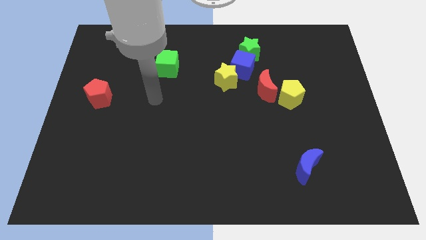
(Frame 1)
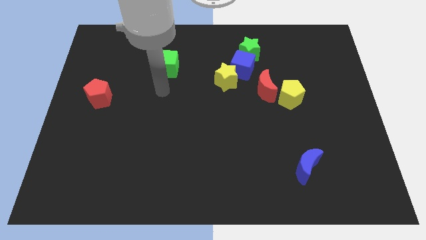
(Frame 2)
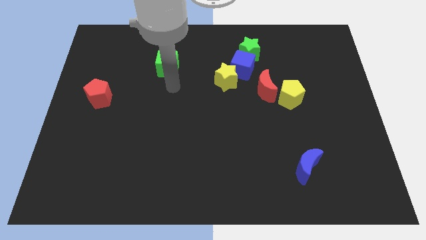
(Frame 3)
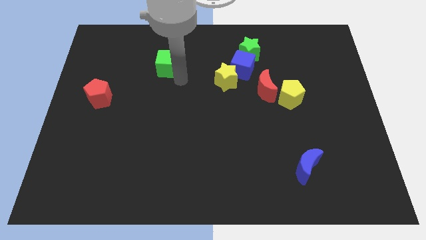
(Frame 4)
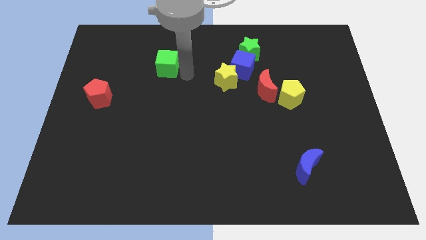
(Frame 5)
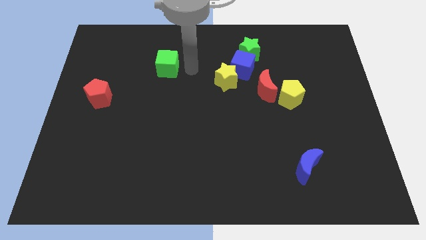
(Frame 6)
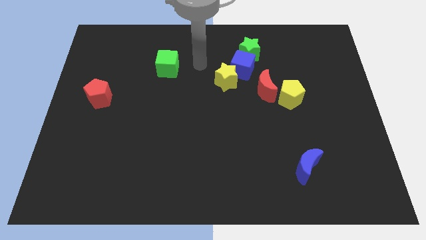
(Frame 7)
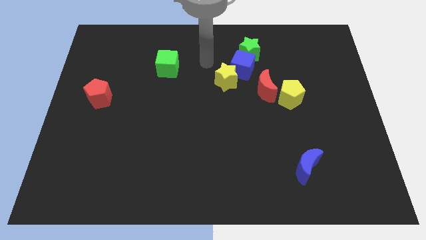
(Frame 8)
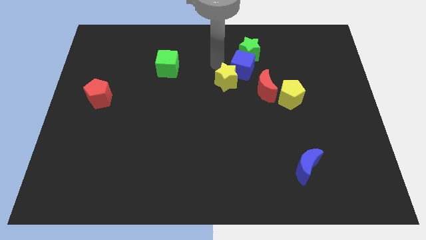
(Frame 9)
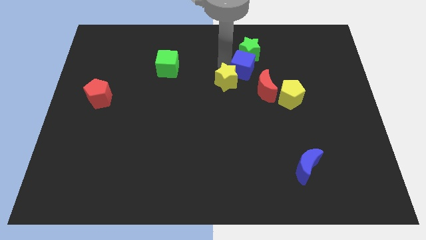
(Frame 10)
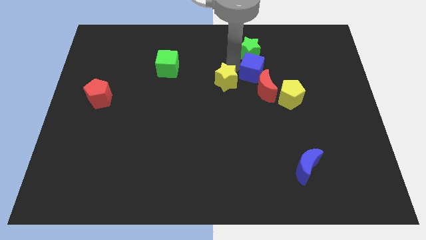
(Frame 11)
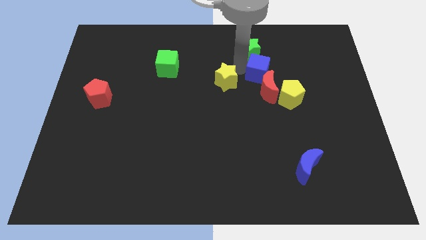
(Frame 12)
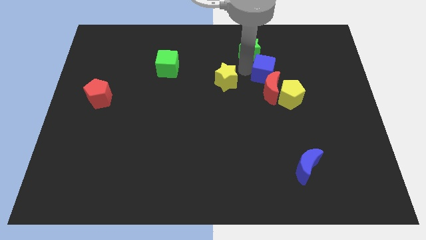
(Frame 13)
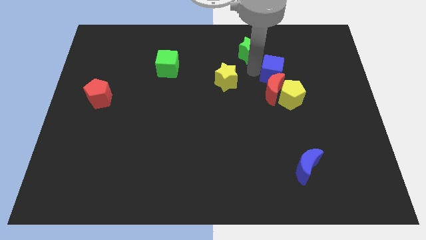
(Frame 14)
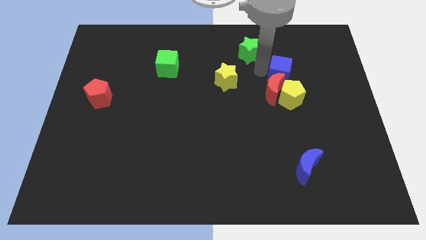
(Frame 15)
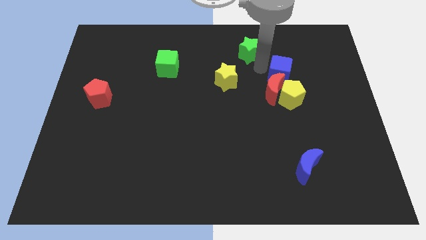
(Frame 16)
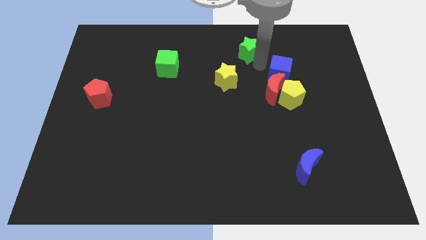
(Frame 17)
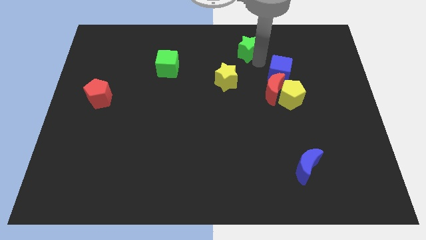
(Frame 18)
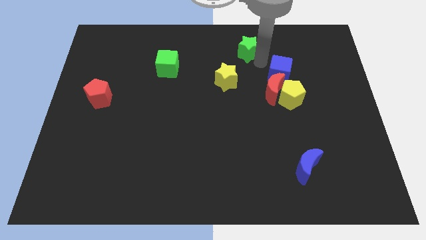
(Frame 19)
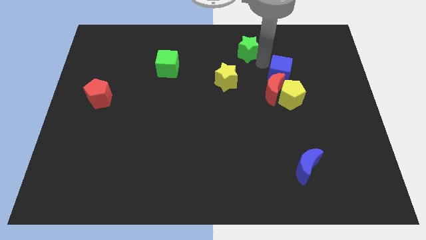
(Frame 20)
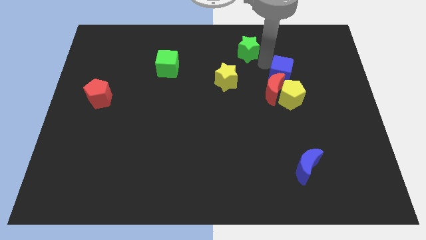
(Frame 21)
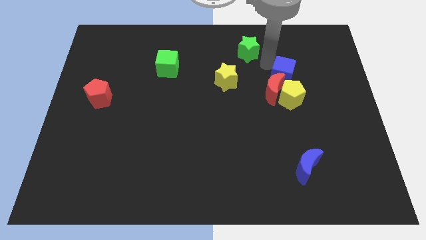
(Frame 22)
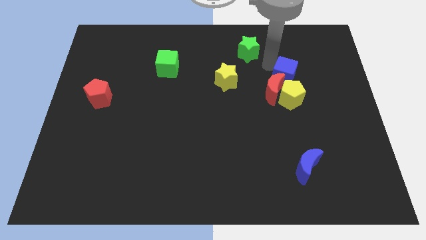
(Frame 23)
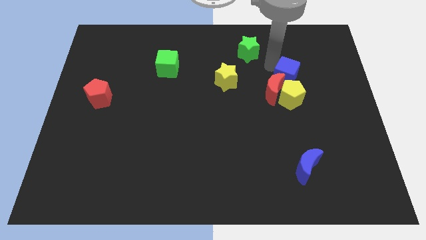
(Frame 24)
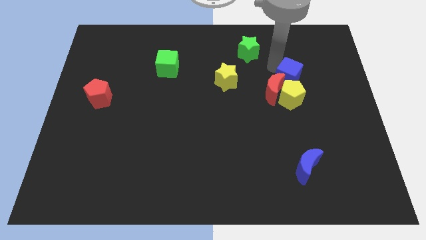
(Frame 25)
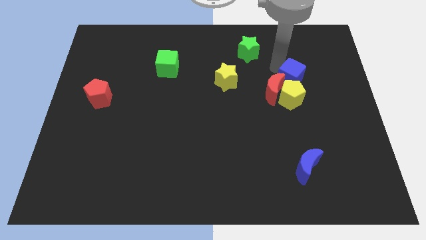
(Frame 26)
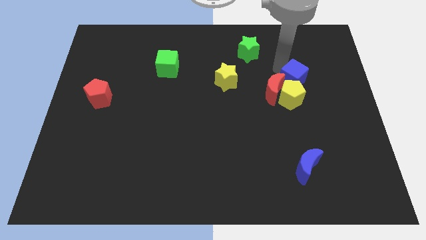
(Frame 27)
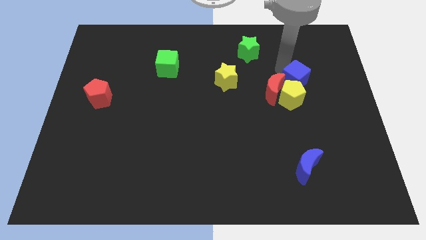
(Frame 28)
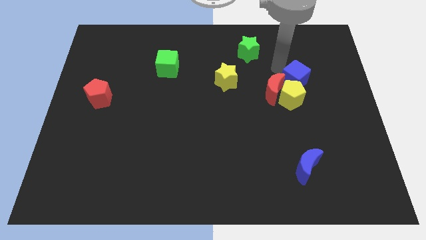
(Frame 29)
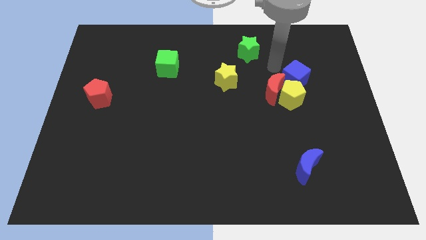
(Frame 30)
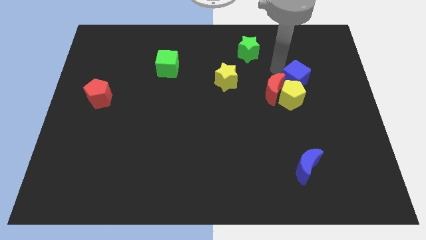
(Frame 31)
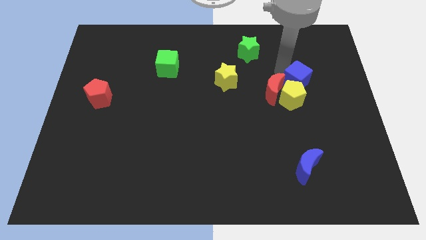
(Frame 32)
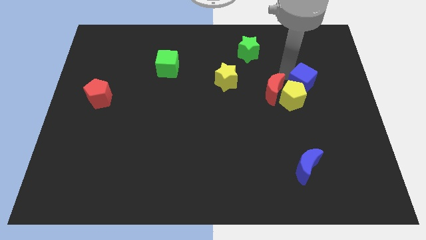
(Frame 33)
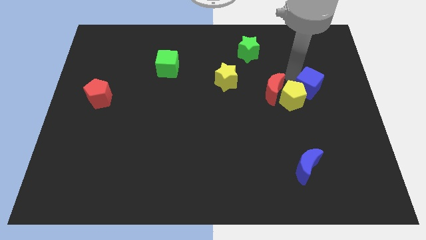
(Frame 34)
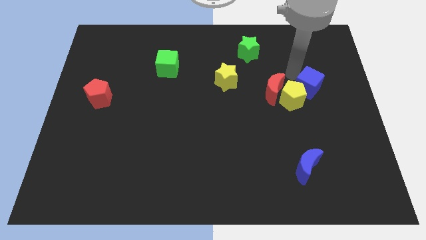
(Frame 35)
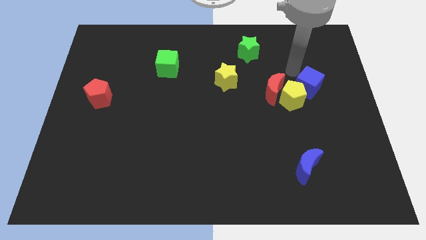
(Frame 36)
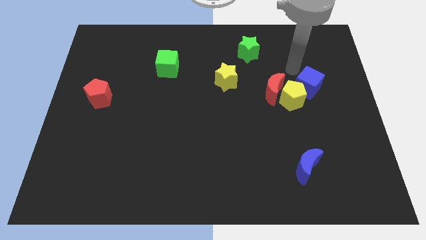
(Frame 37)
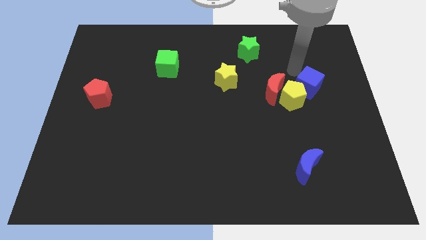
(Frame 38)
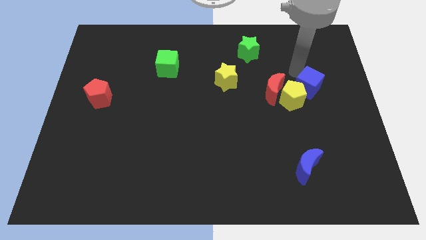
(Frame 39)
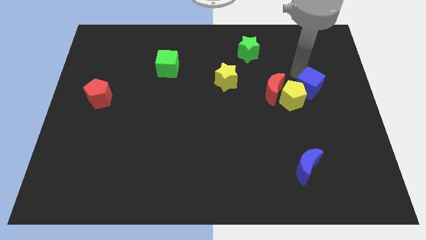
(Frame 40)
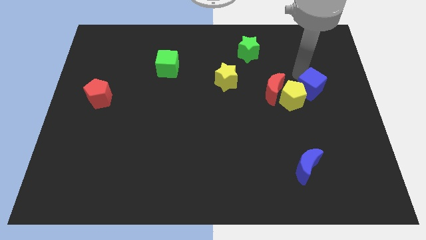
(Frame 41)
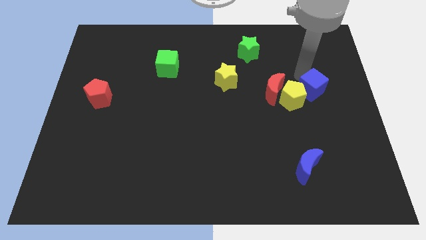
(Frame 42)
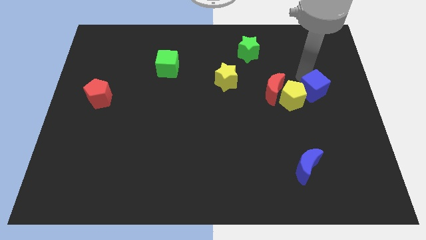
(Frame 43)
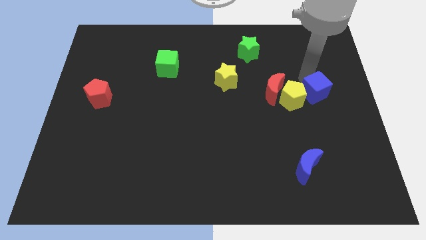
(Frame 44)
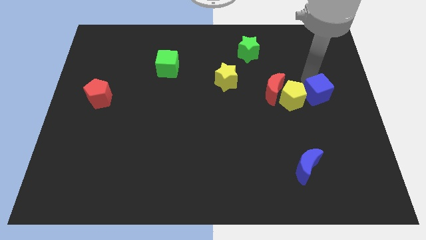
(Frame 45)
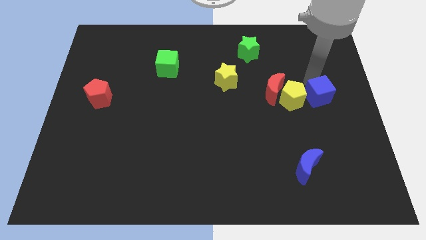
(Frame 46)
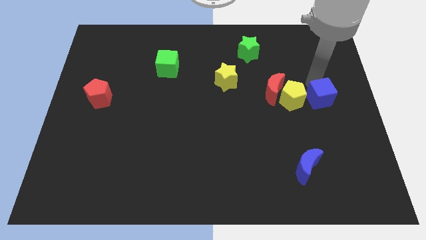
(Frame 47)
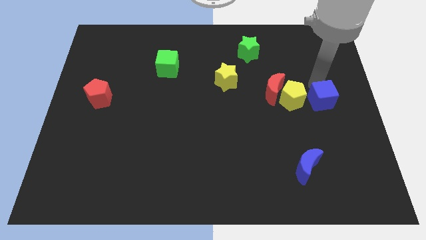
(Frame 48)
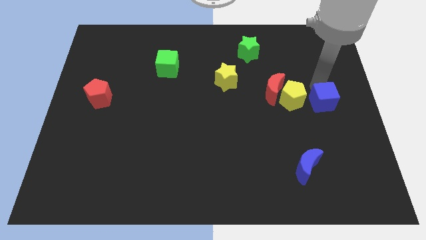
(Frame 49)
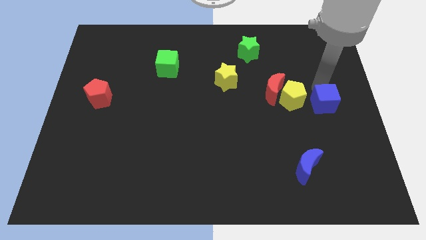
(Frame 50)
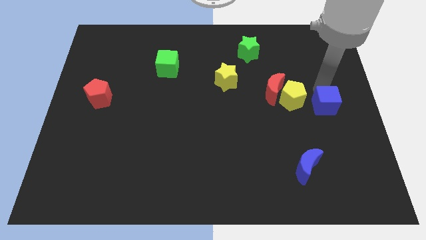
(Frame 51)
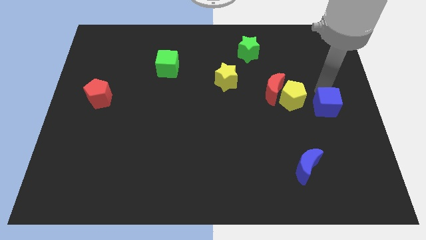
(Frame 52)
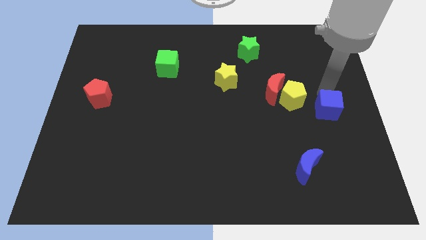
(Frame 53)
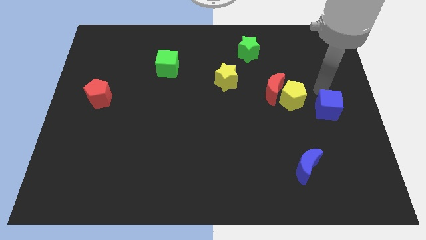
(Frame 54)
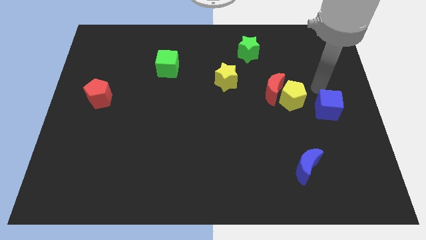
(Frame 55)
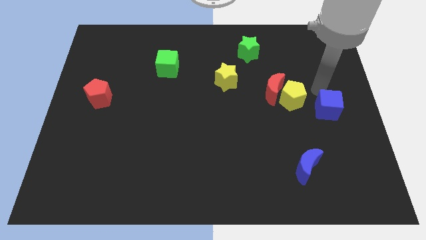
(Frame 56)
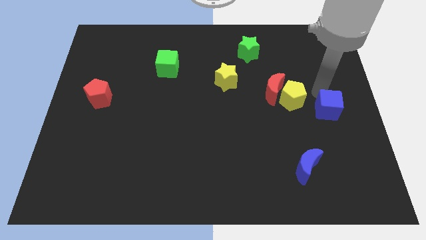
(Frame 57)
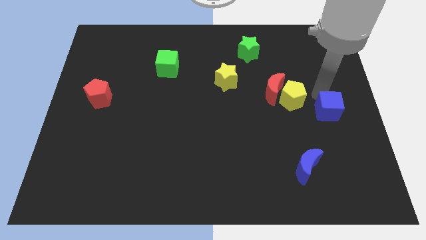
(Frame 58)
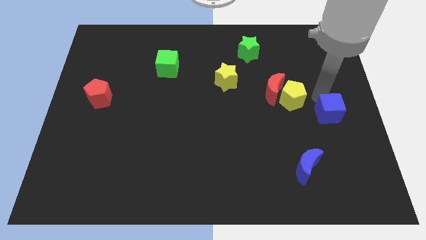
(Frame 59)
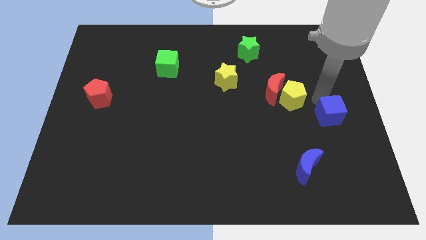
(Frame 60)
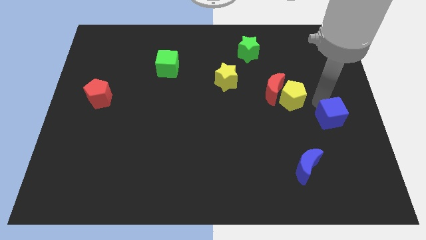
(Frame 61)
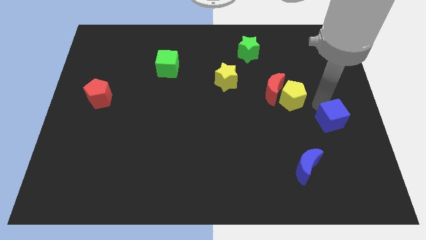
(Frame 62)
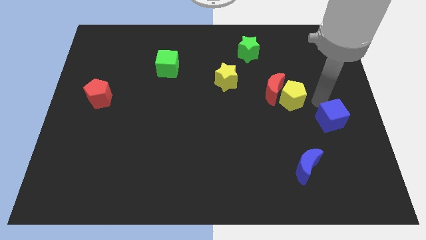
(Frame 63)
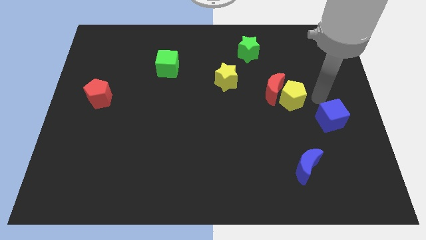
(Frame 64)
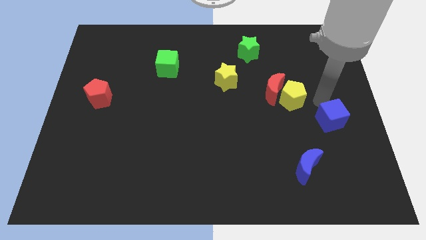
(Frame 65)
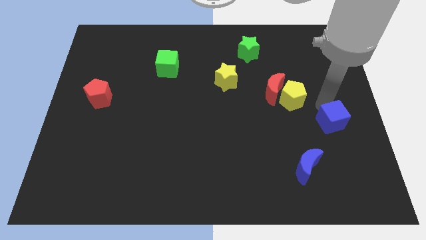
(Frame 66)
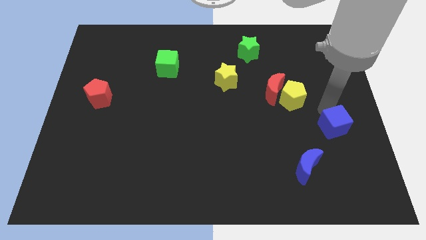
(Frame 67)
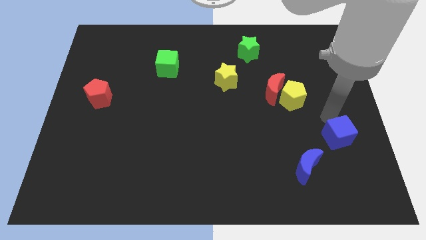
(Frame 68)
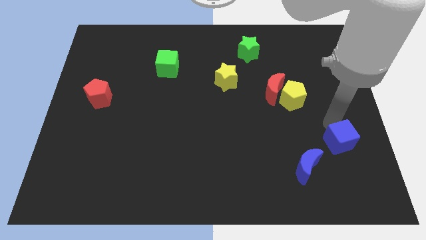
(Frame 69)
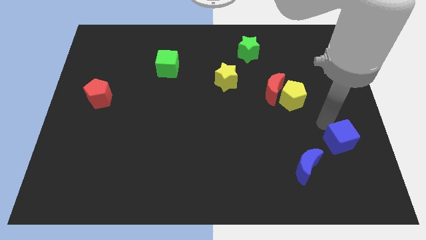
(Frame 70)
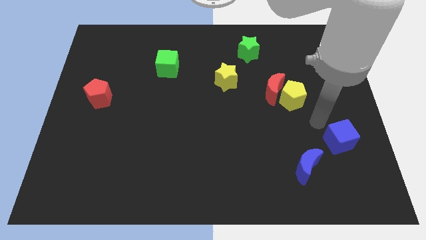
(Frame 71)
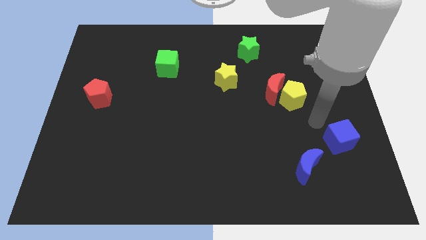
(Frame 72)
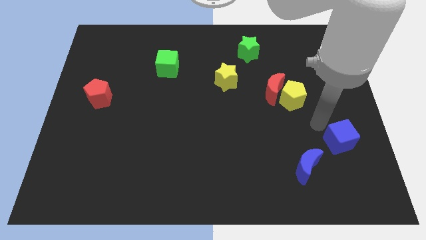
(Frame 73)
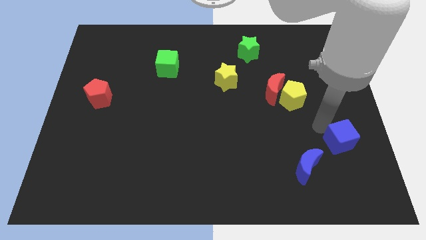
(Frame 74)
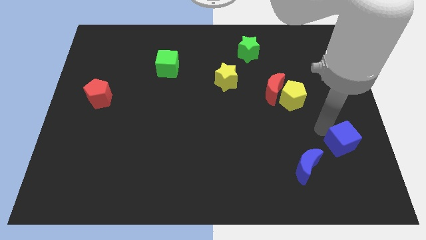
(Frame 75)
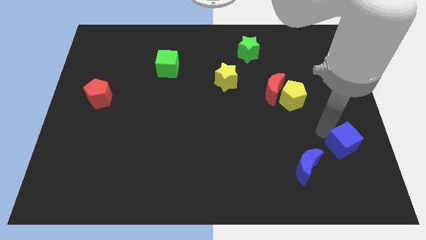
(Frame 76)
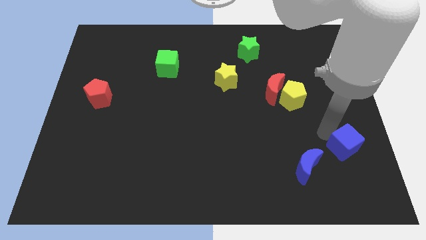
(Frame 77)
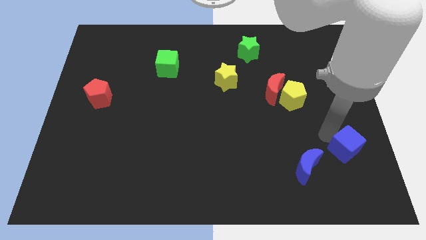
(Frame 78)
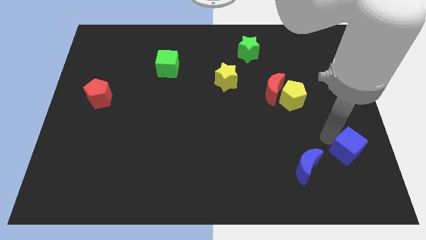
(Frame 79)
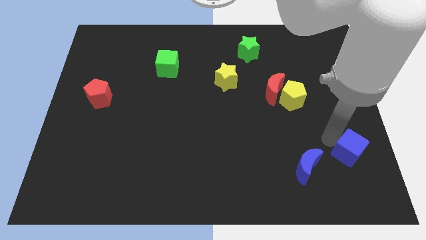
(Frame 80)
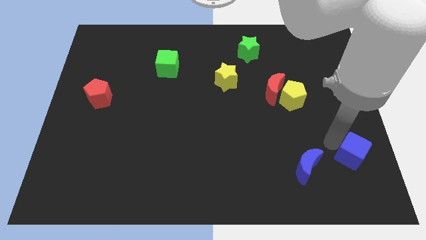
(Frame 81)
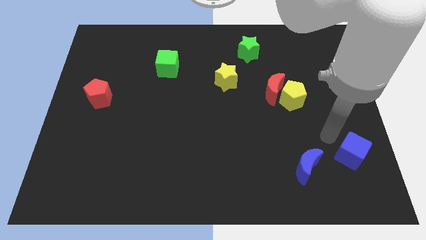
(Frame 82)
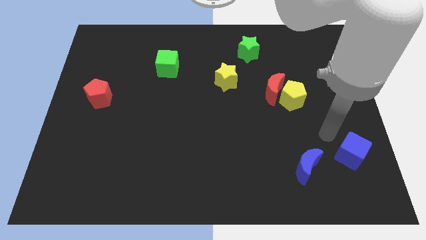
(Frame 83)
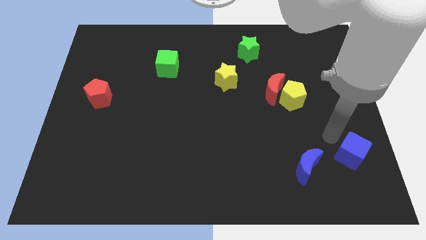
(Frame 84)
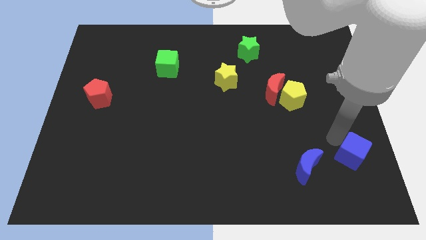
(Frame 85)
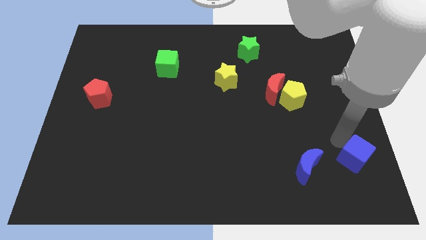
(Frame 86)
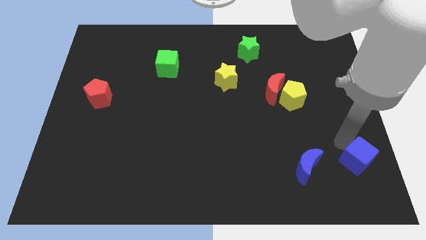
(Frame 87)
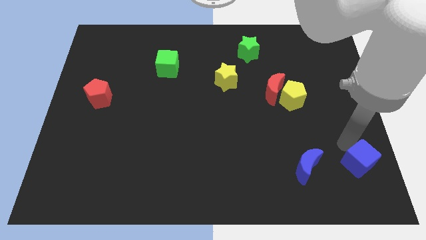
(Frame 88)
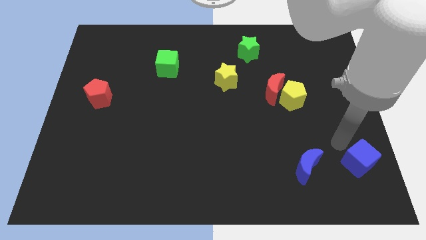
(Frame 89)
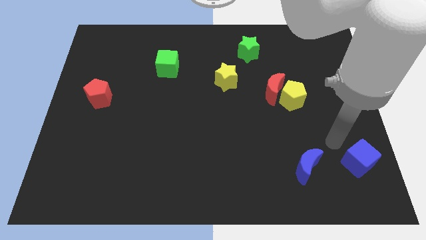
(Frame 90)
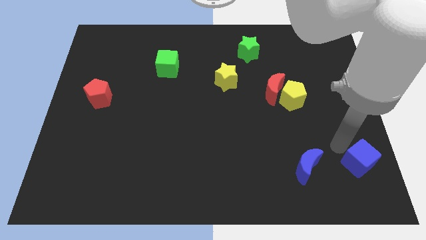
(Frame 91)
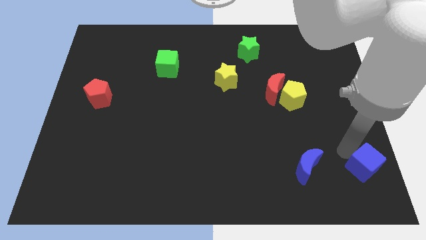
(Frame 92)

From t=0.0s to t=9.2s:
move the blue cube to the bottom right corner
